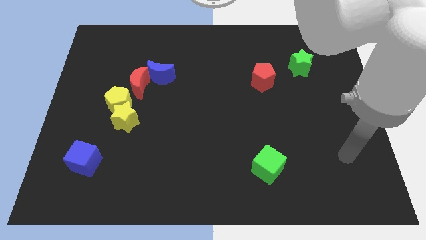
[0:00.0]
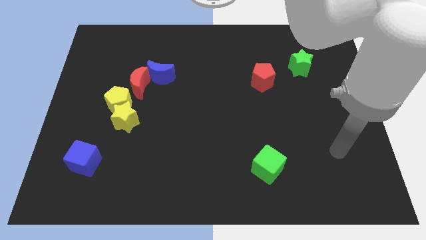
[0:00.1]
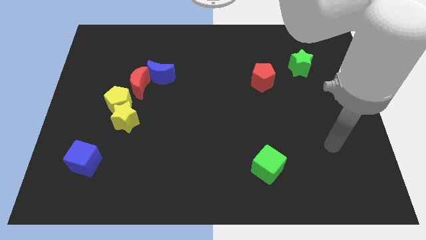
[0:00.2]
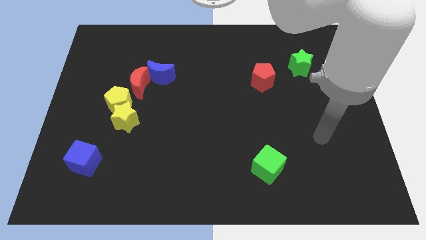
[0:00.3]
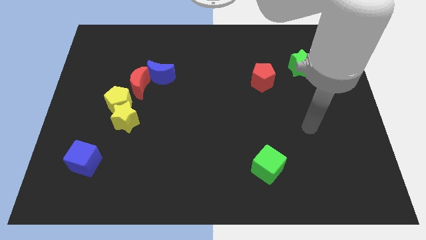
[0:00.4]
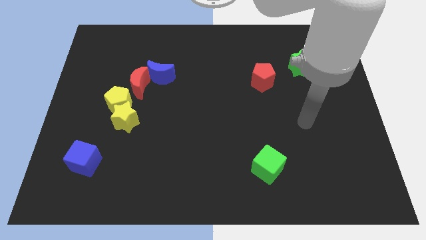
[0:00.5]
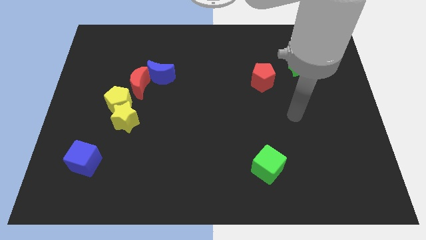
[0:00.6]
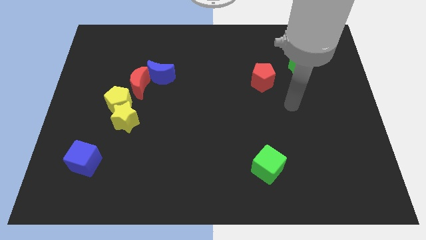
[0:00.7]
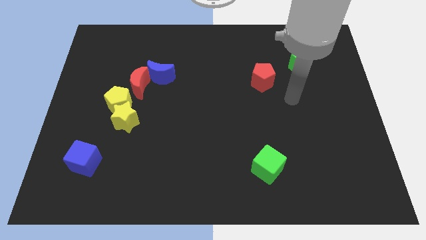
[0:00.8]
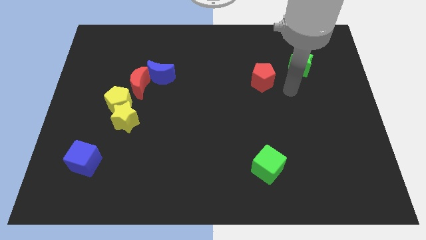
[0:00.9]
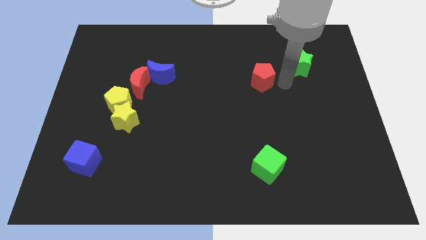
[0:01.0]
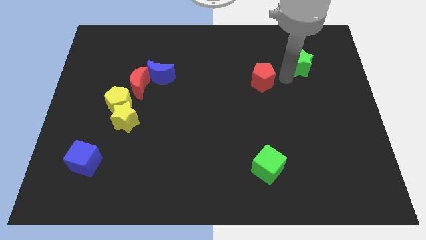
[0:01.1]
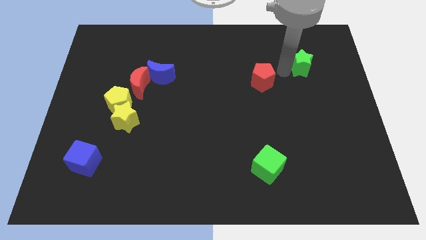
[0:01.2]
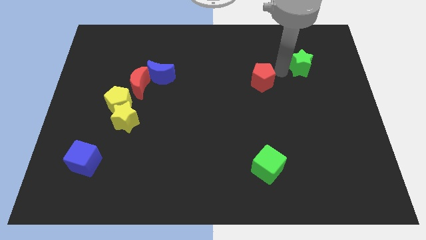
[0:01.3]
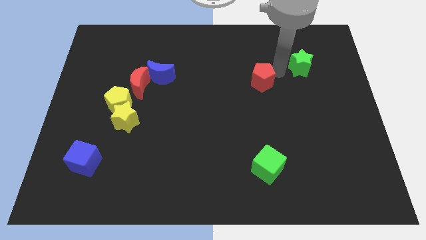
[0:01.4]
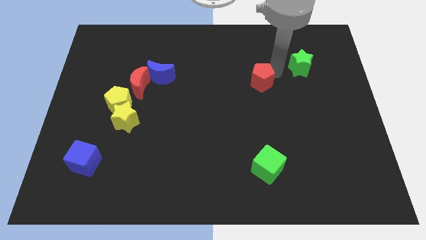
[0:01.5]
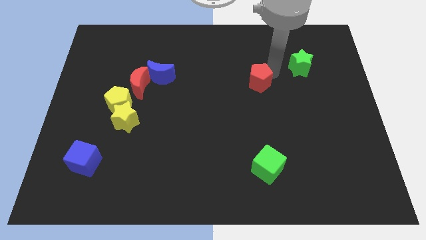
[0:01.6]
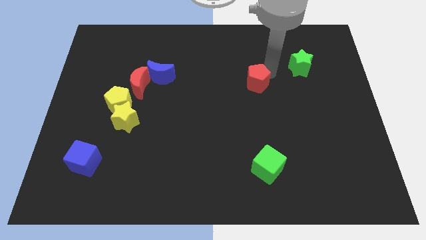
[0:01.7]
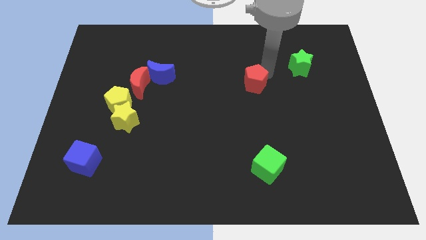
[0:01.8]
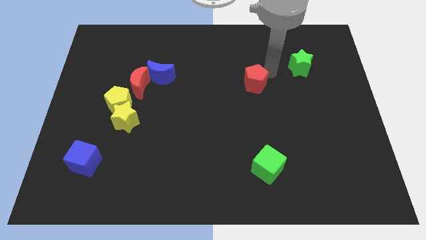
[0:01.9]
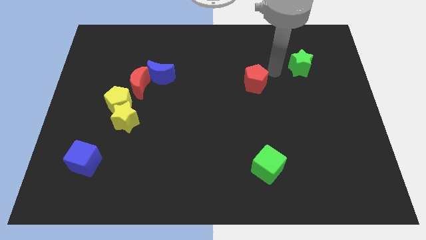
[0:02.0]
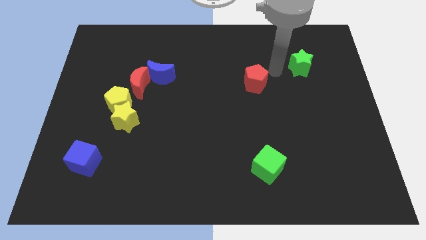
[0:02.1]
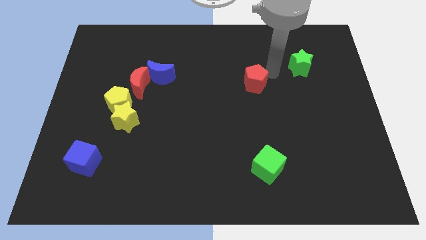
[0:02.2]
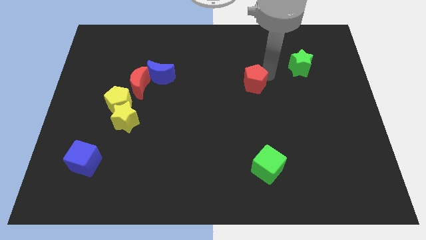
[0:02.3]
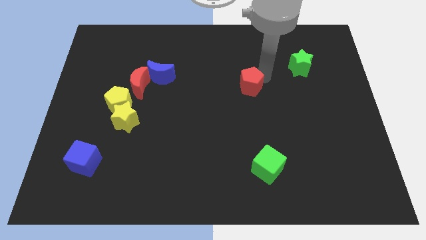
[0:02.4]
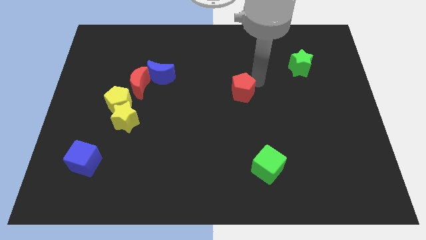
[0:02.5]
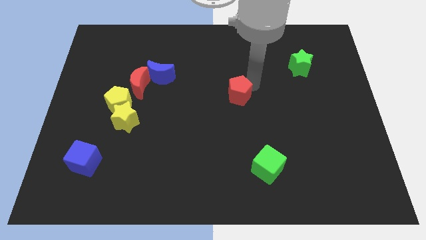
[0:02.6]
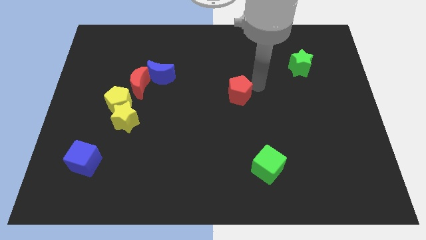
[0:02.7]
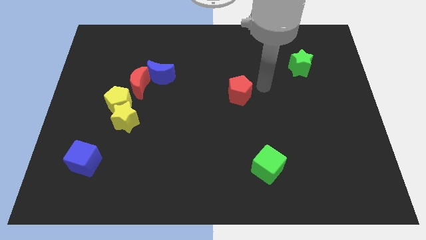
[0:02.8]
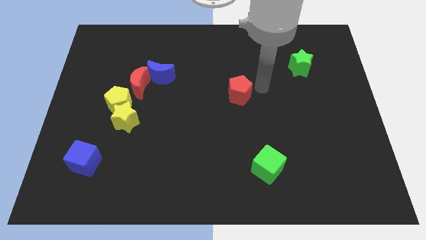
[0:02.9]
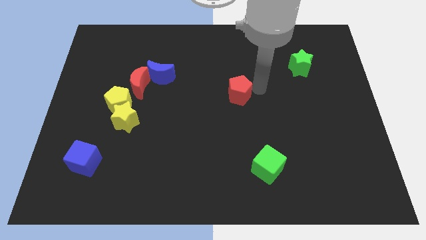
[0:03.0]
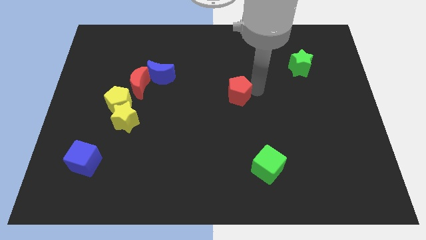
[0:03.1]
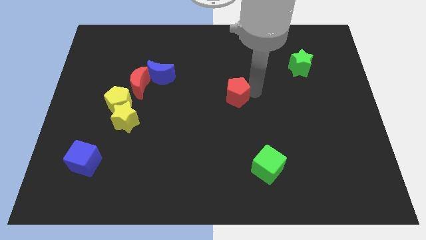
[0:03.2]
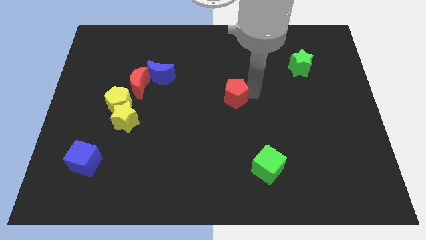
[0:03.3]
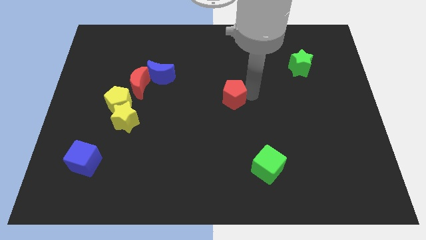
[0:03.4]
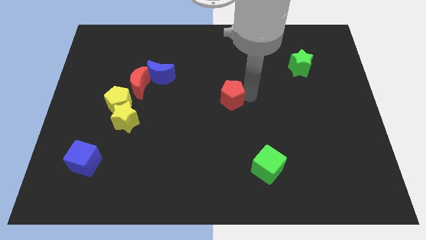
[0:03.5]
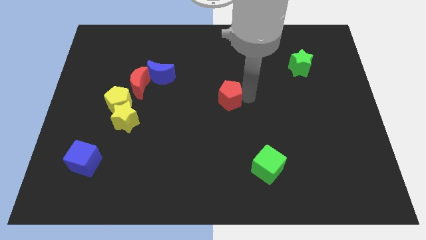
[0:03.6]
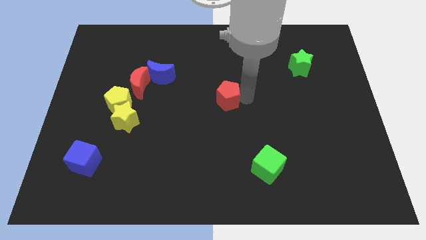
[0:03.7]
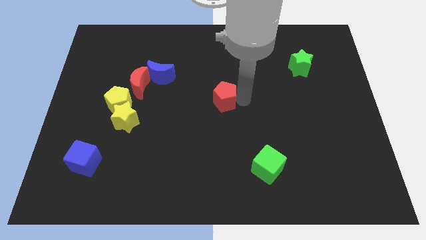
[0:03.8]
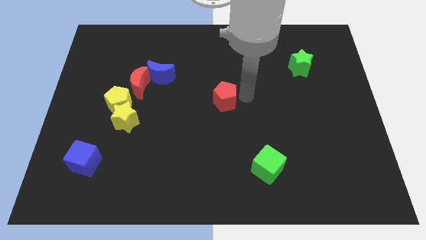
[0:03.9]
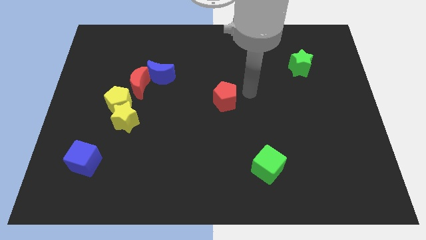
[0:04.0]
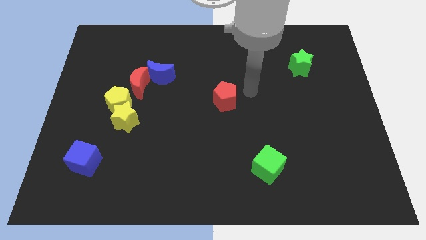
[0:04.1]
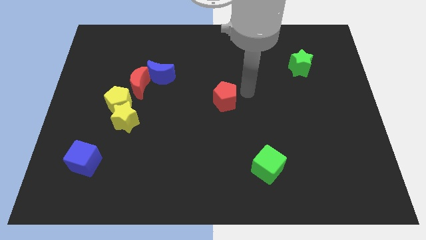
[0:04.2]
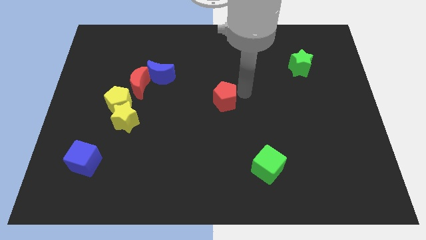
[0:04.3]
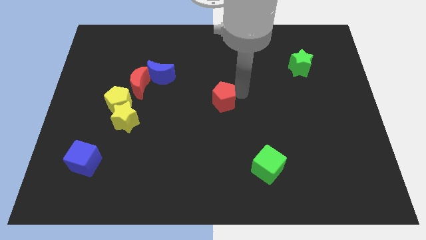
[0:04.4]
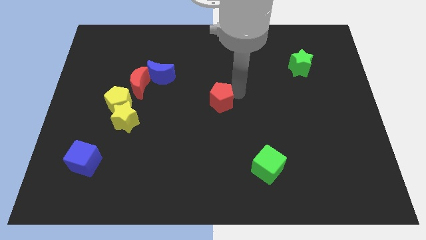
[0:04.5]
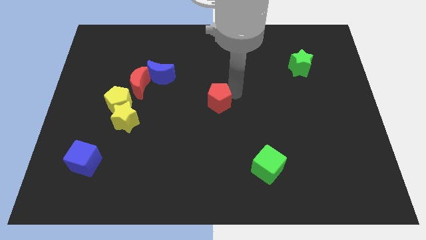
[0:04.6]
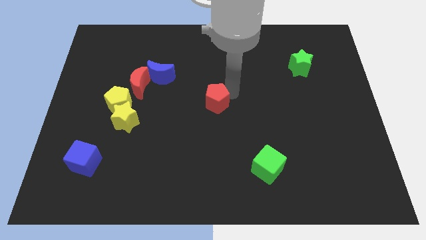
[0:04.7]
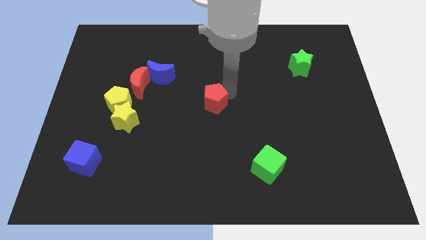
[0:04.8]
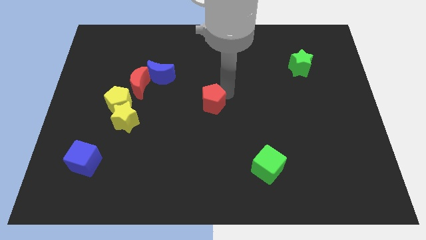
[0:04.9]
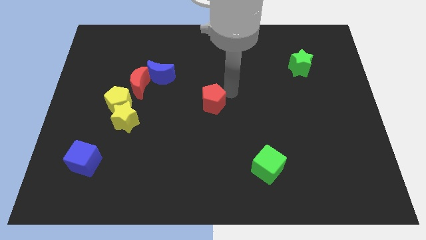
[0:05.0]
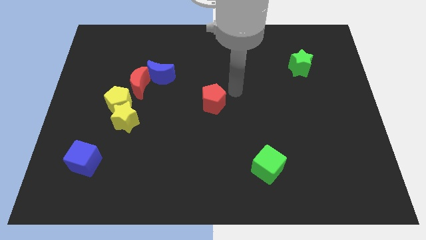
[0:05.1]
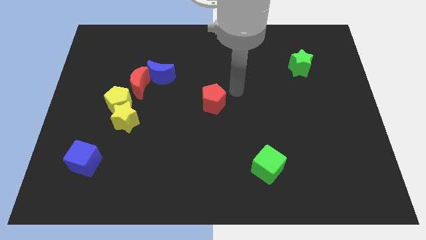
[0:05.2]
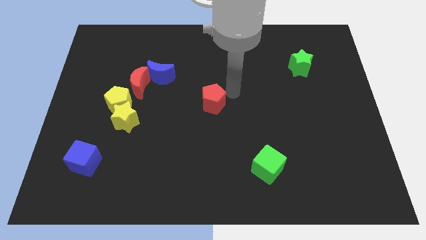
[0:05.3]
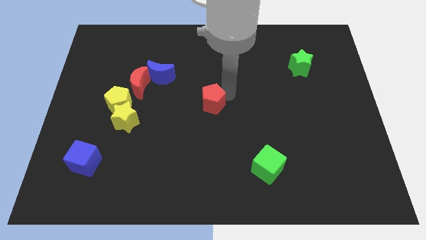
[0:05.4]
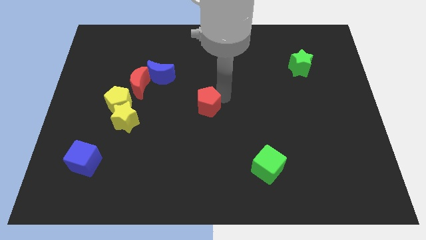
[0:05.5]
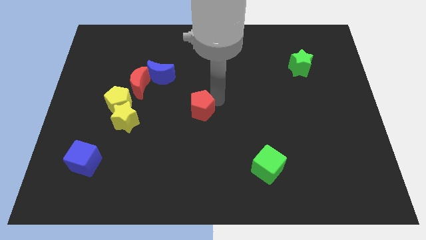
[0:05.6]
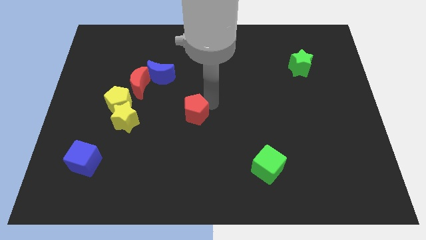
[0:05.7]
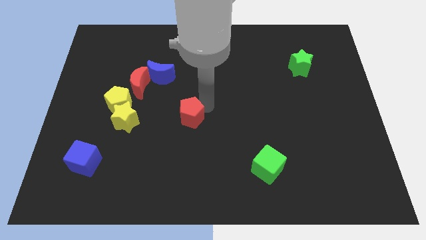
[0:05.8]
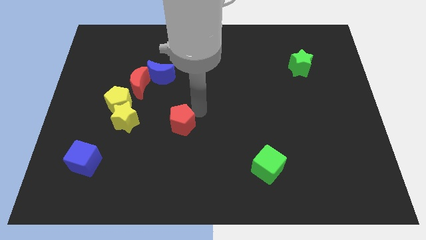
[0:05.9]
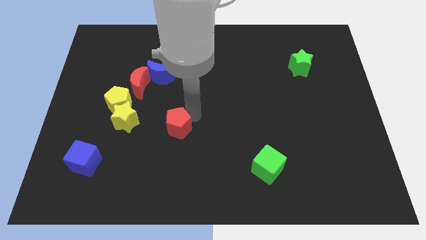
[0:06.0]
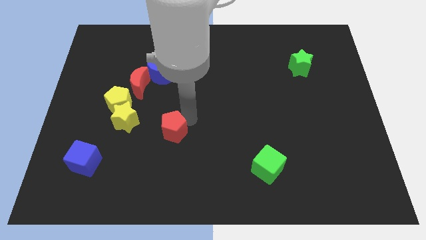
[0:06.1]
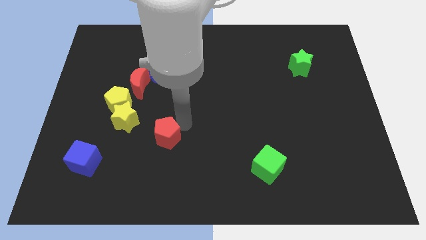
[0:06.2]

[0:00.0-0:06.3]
push the red pentagon to the bottom right of the yellow star

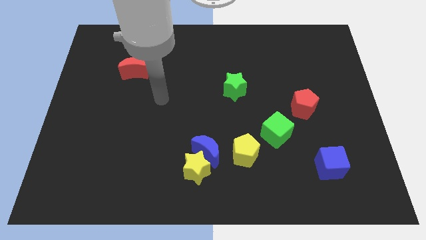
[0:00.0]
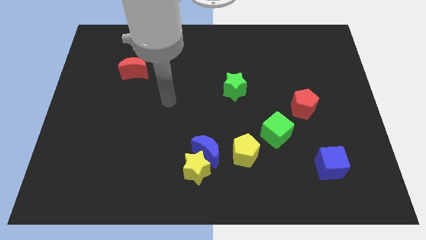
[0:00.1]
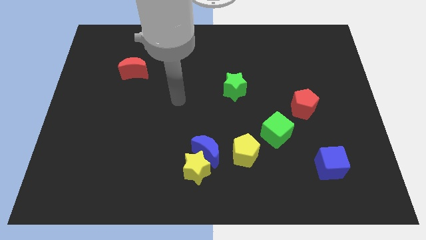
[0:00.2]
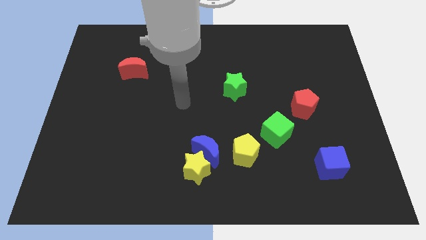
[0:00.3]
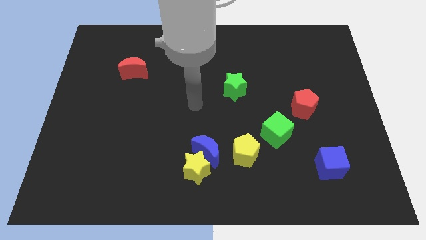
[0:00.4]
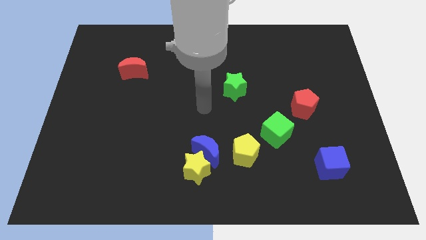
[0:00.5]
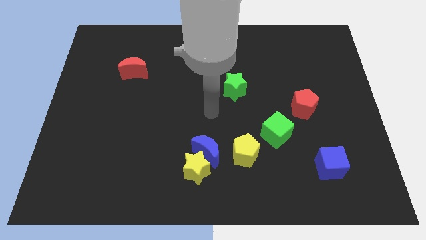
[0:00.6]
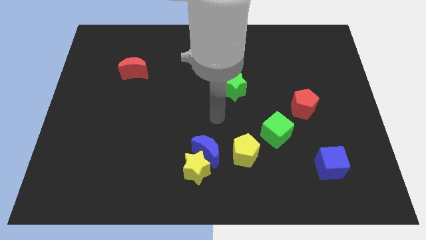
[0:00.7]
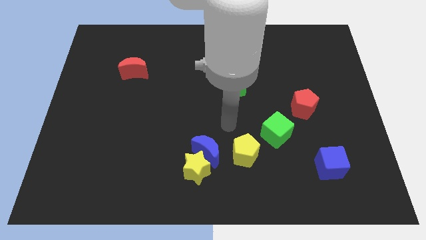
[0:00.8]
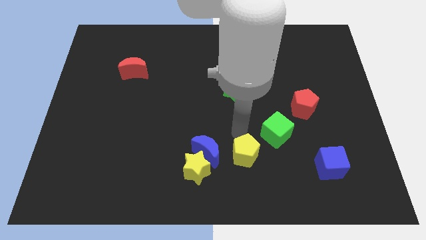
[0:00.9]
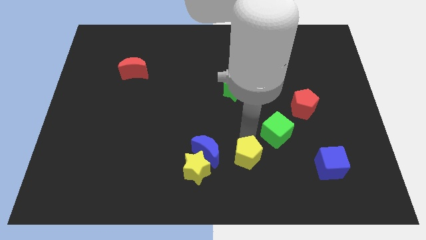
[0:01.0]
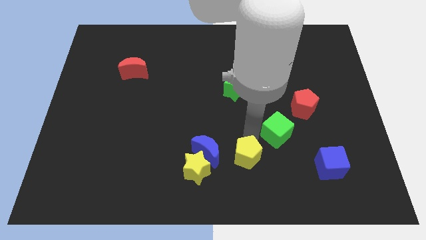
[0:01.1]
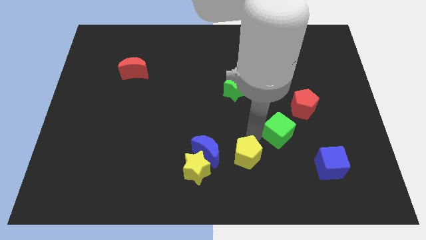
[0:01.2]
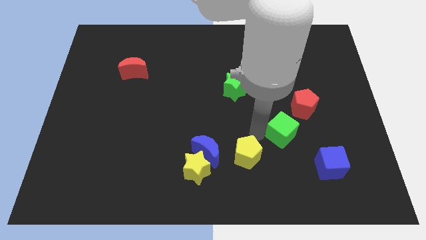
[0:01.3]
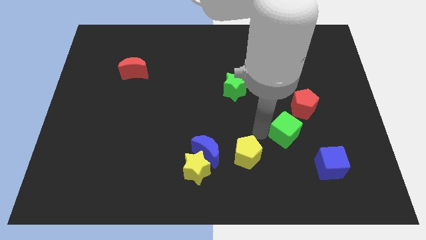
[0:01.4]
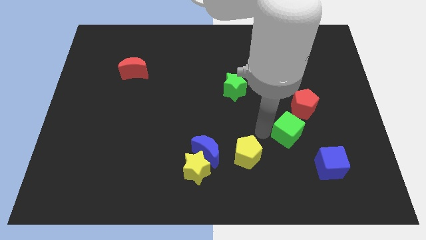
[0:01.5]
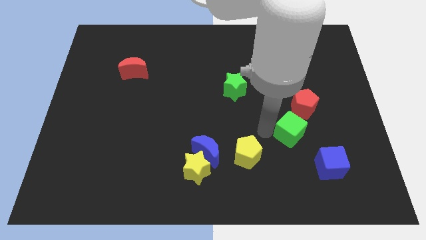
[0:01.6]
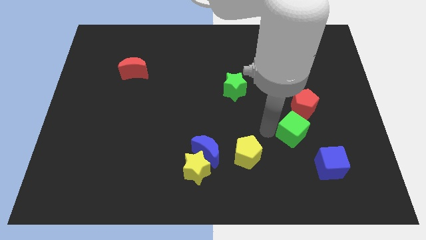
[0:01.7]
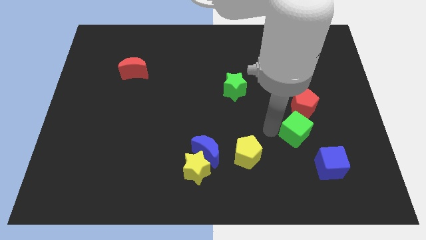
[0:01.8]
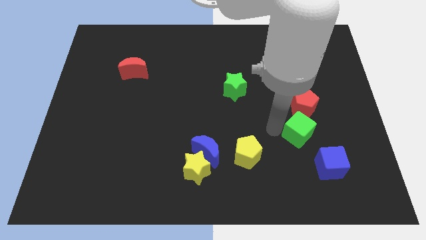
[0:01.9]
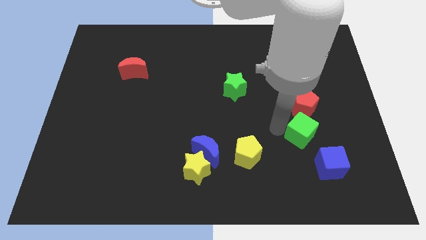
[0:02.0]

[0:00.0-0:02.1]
push the green cube above the blue cube
